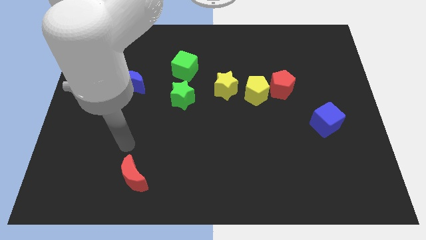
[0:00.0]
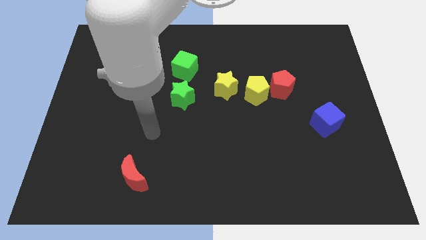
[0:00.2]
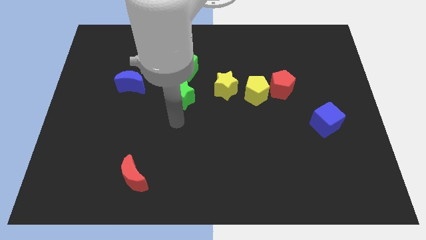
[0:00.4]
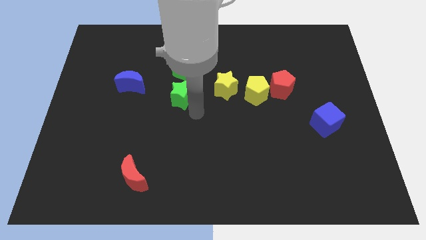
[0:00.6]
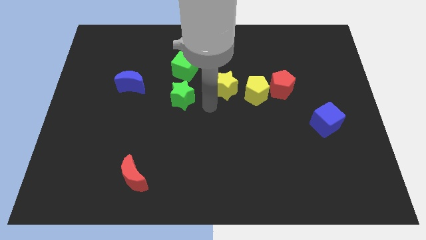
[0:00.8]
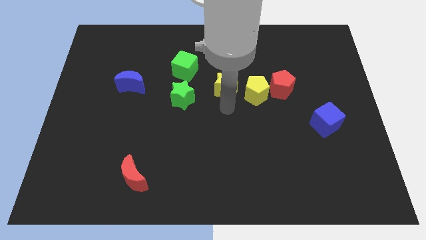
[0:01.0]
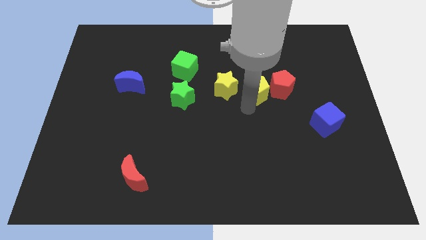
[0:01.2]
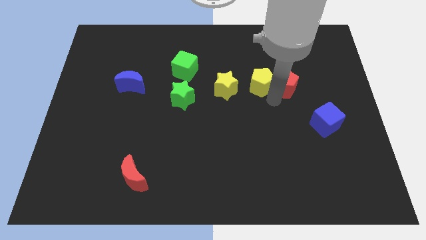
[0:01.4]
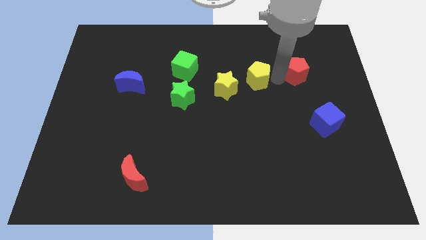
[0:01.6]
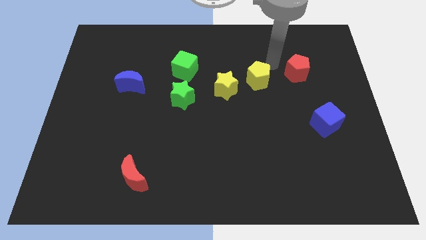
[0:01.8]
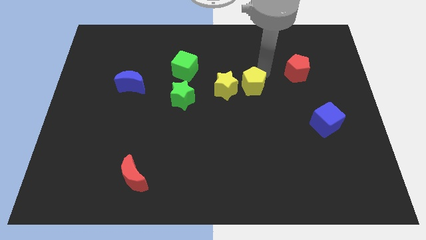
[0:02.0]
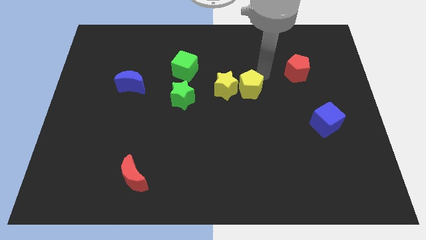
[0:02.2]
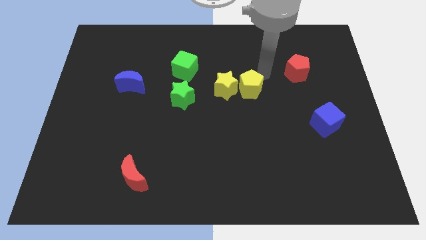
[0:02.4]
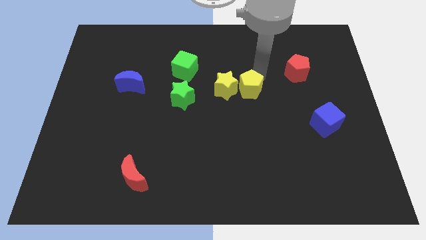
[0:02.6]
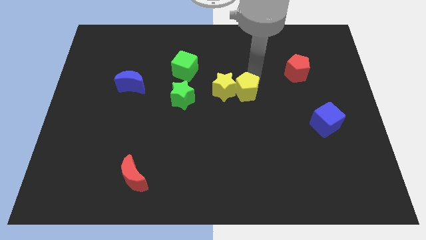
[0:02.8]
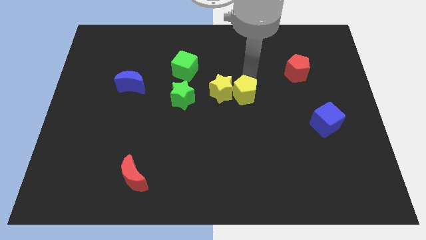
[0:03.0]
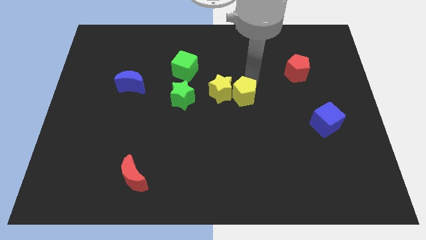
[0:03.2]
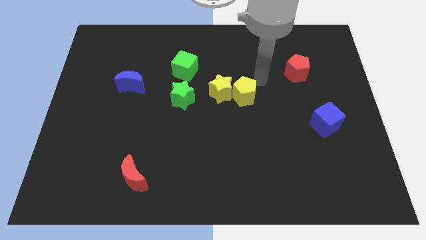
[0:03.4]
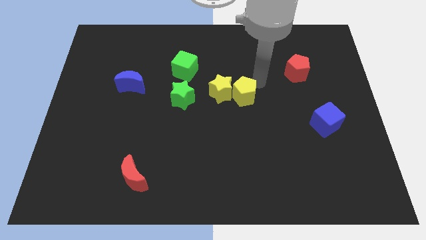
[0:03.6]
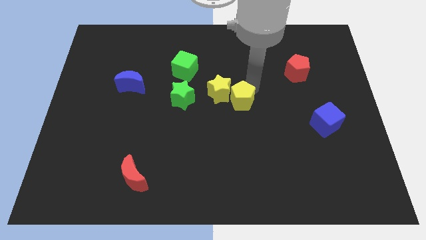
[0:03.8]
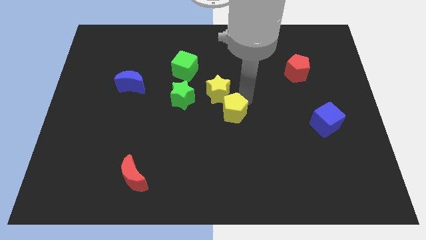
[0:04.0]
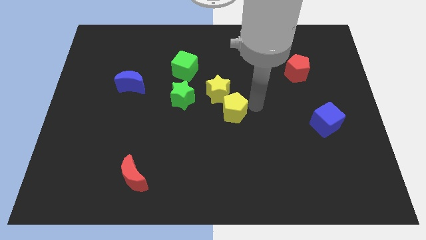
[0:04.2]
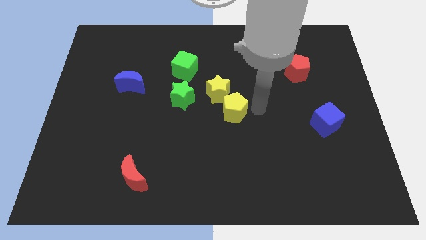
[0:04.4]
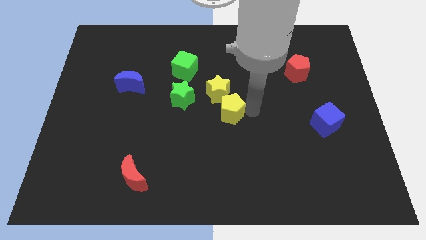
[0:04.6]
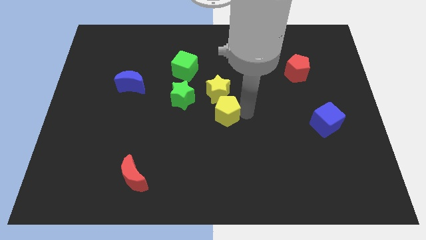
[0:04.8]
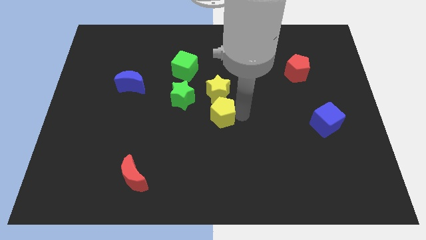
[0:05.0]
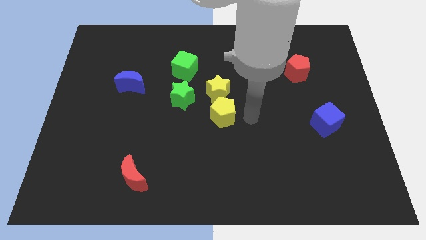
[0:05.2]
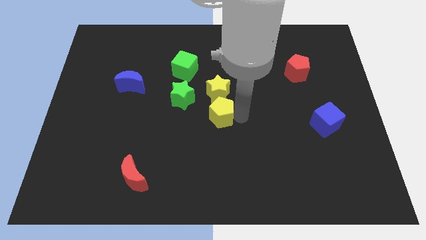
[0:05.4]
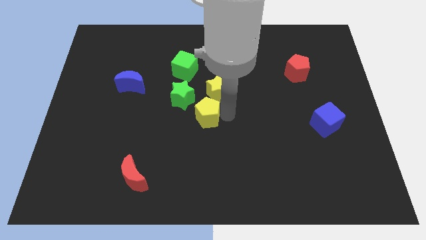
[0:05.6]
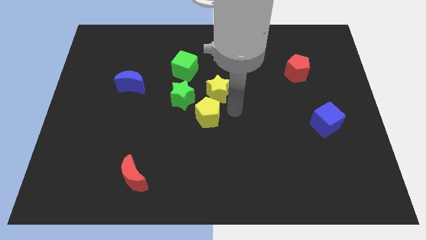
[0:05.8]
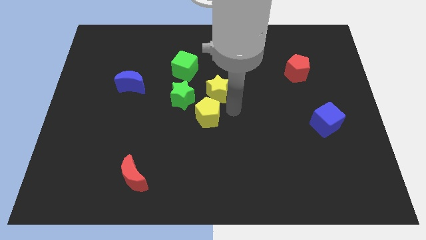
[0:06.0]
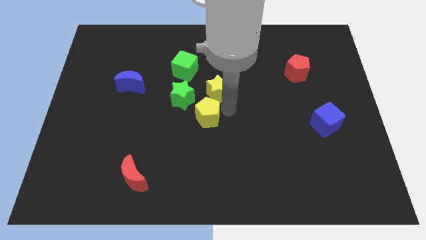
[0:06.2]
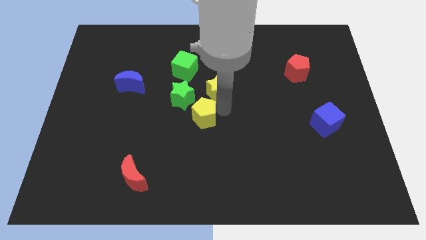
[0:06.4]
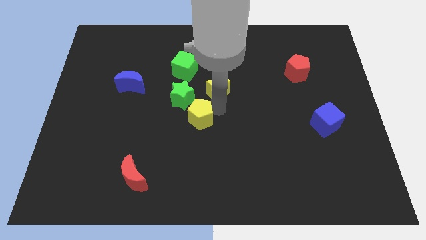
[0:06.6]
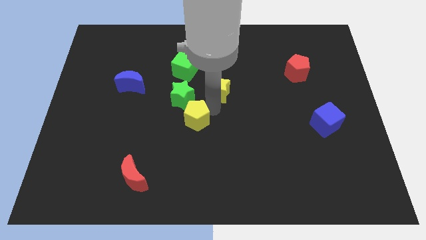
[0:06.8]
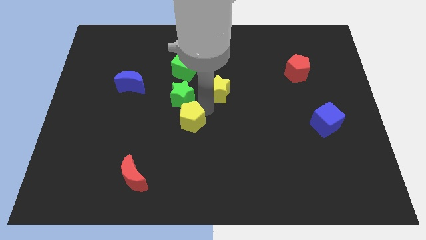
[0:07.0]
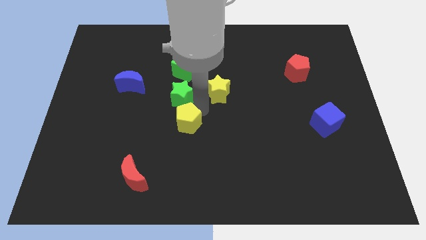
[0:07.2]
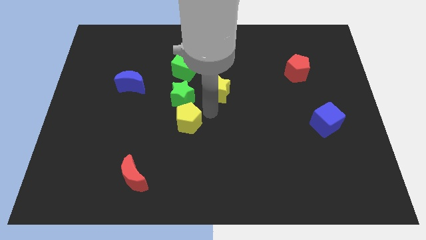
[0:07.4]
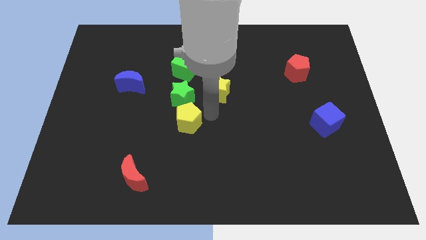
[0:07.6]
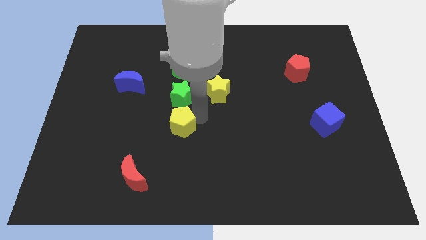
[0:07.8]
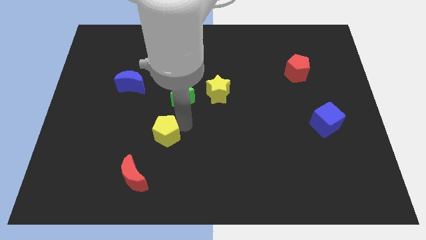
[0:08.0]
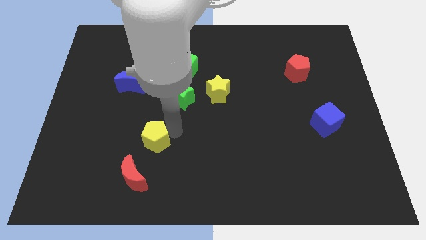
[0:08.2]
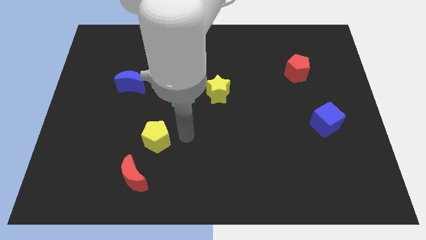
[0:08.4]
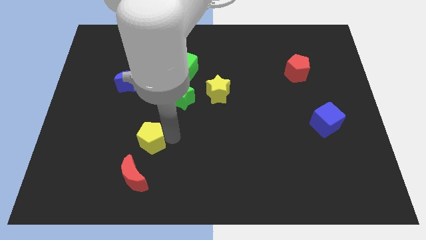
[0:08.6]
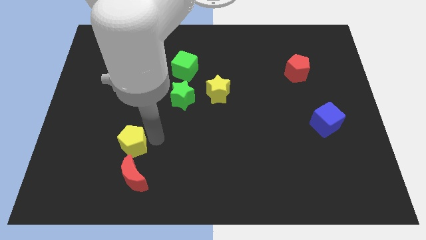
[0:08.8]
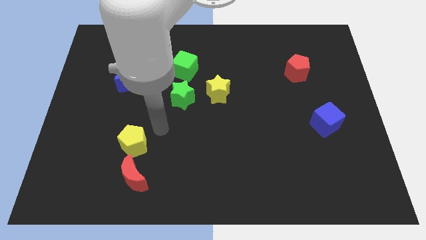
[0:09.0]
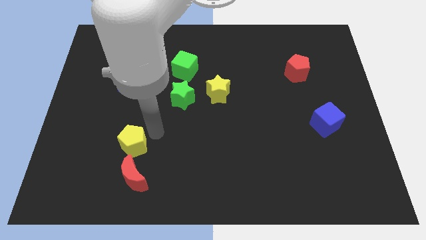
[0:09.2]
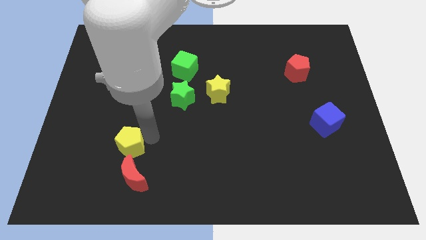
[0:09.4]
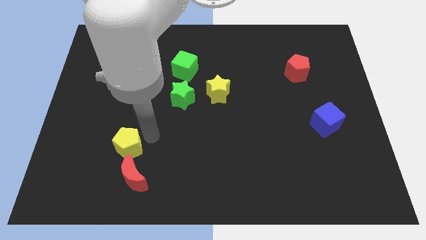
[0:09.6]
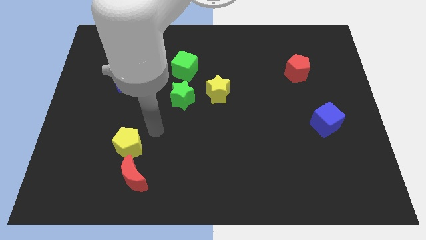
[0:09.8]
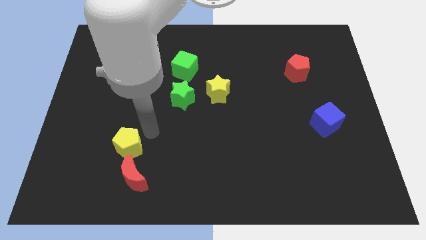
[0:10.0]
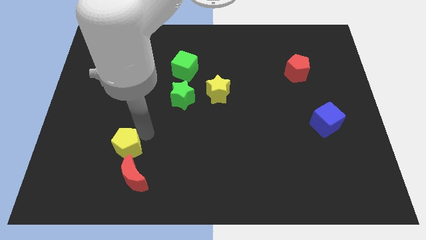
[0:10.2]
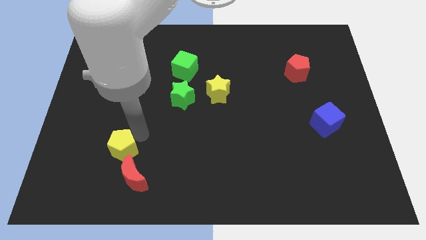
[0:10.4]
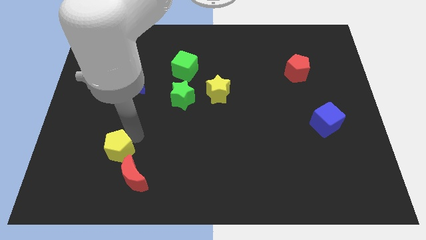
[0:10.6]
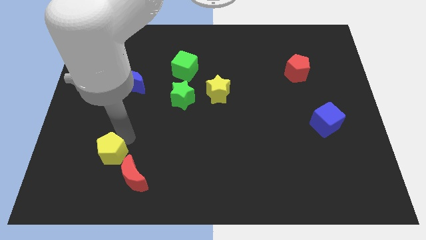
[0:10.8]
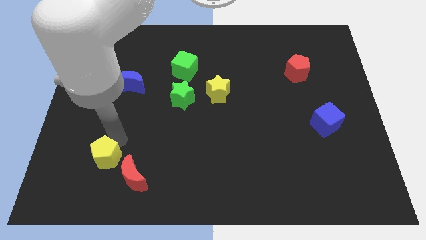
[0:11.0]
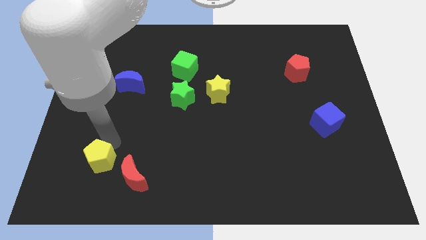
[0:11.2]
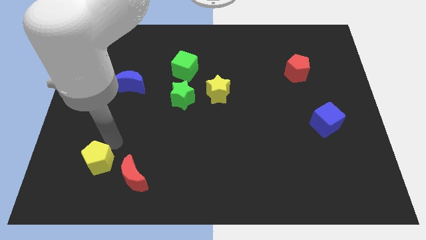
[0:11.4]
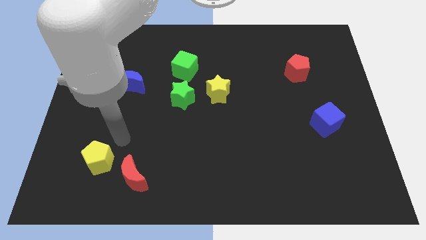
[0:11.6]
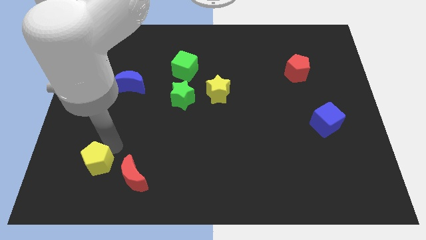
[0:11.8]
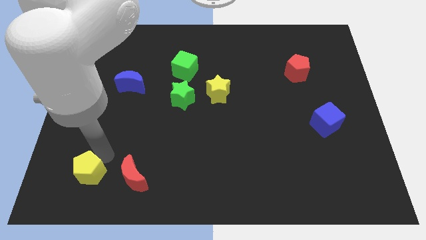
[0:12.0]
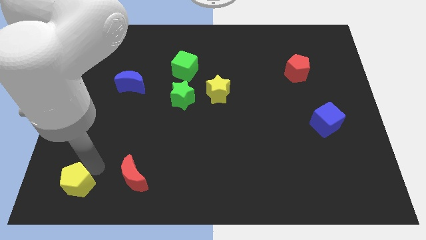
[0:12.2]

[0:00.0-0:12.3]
put the yellow pentagon to the bottom left corner

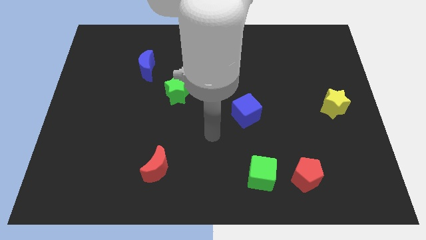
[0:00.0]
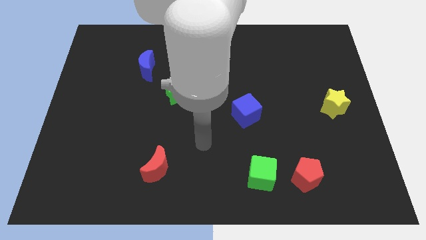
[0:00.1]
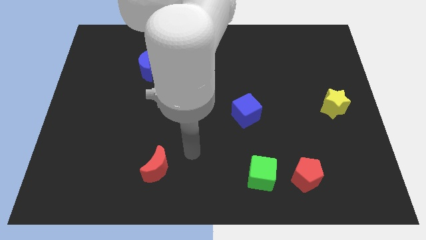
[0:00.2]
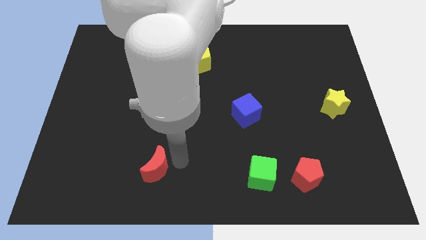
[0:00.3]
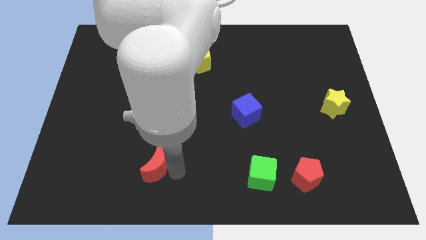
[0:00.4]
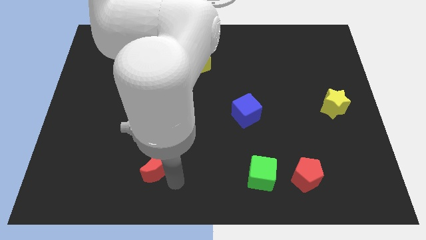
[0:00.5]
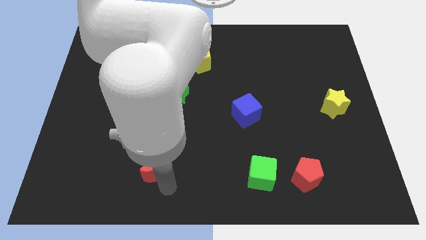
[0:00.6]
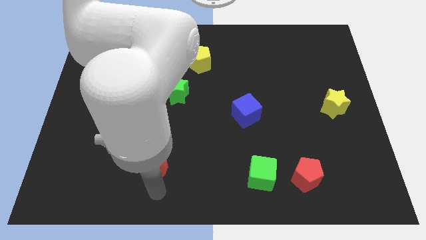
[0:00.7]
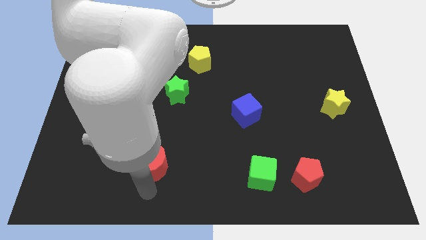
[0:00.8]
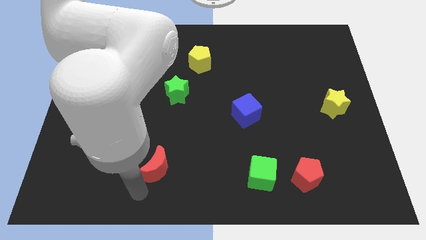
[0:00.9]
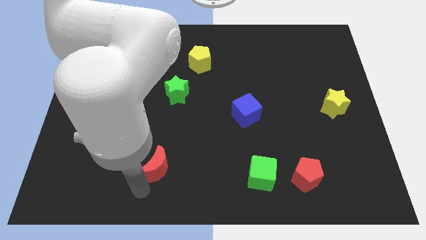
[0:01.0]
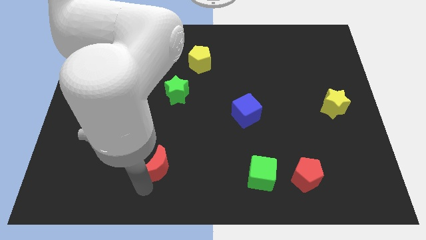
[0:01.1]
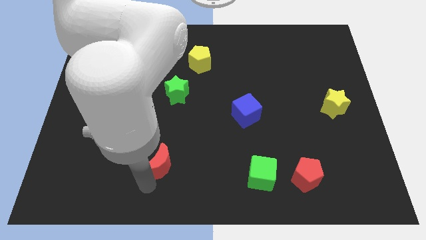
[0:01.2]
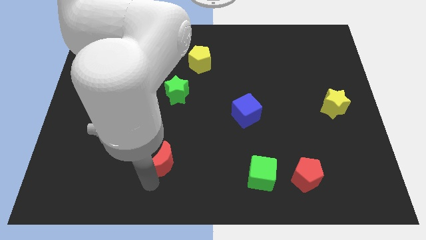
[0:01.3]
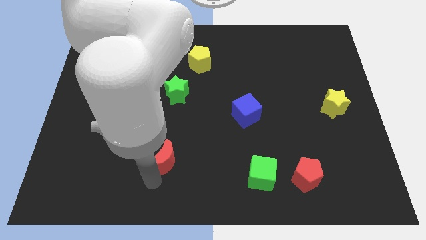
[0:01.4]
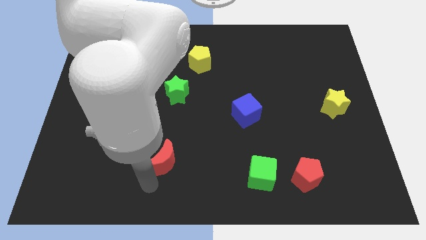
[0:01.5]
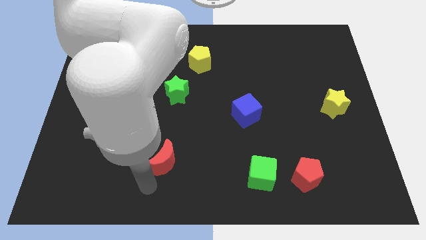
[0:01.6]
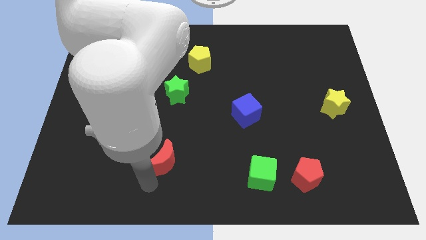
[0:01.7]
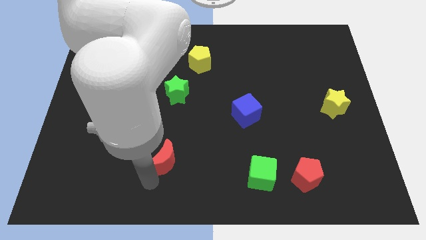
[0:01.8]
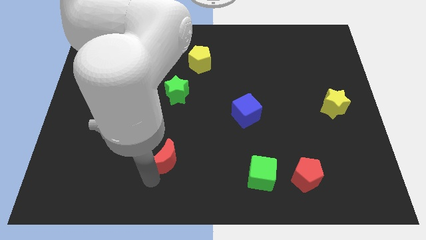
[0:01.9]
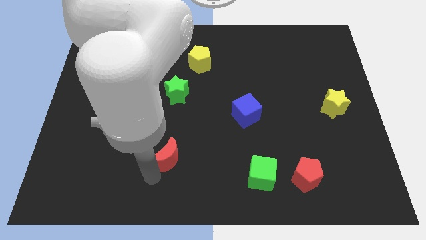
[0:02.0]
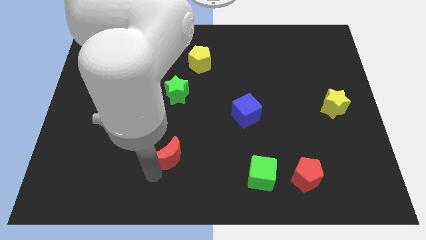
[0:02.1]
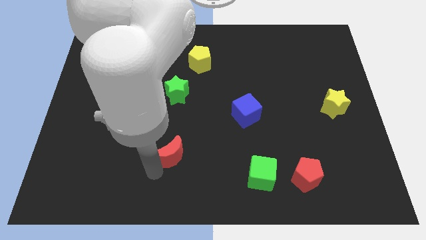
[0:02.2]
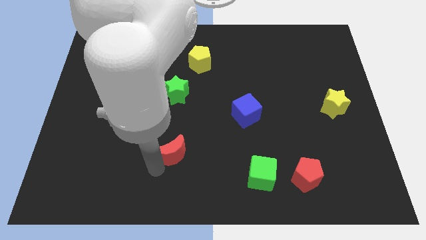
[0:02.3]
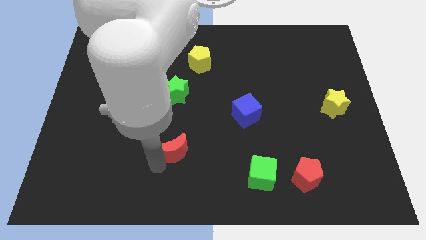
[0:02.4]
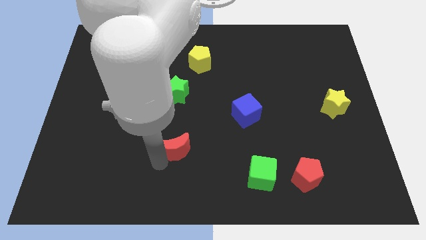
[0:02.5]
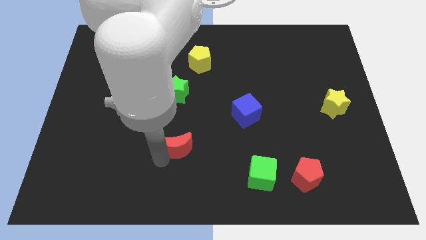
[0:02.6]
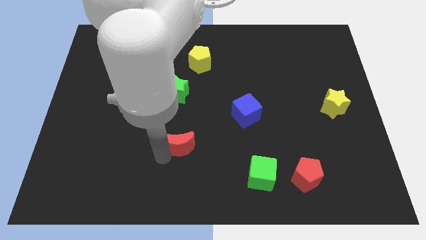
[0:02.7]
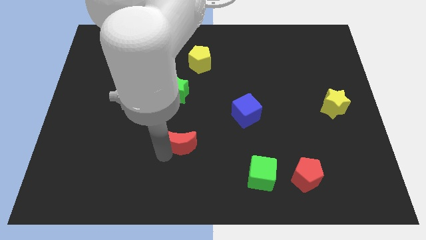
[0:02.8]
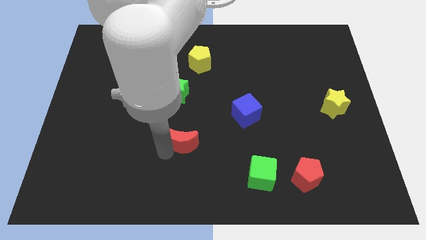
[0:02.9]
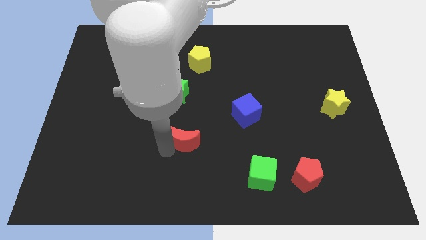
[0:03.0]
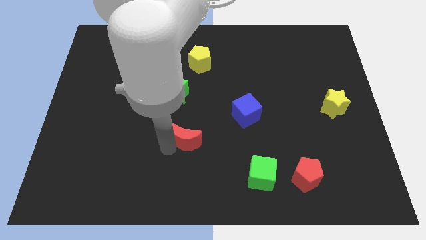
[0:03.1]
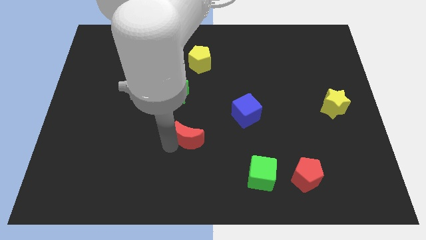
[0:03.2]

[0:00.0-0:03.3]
push the red moon to the middle of the board
